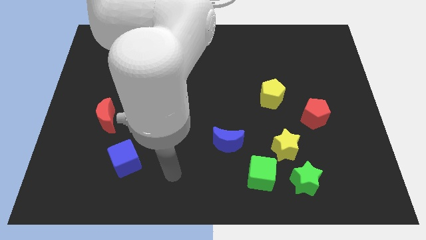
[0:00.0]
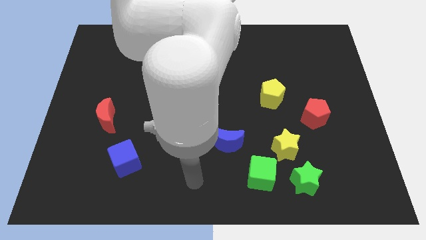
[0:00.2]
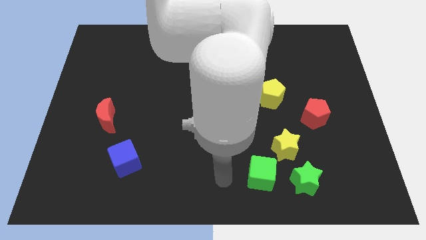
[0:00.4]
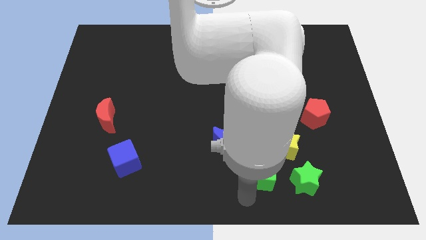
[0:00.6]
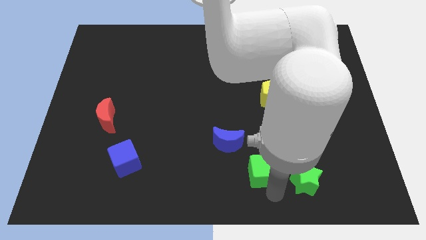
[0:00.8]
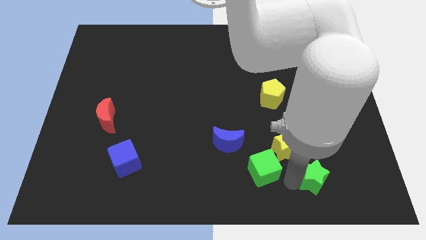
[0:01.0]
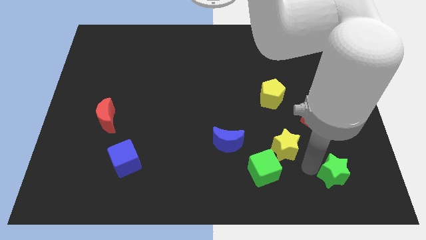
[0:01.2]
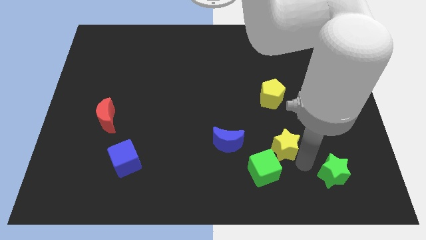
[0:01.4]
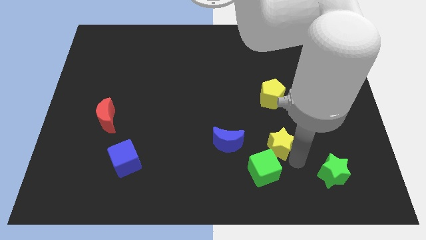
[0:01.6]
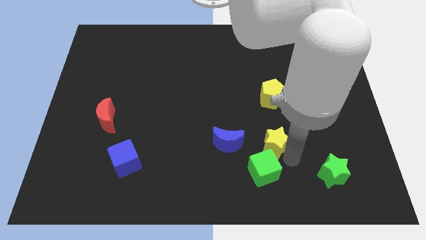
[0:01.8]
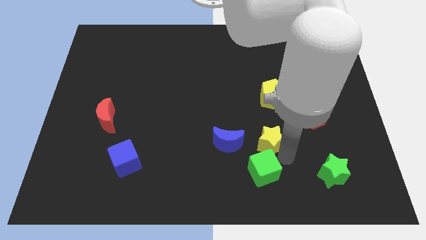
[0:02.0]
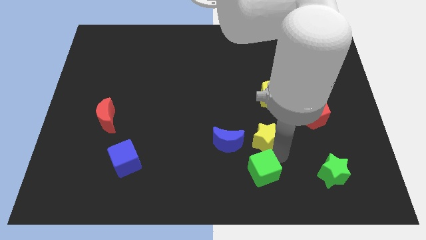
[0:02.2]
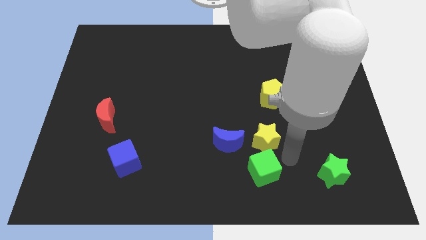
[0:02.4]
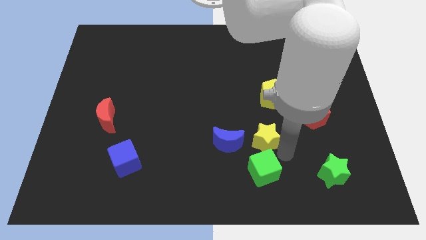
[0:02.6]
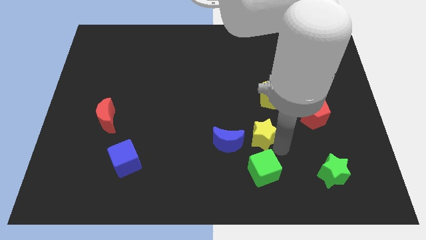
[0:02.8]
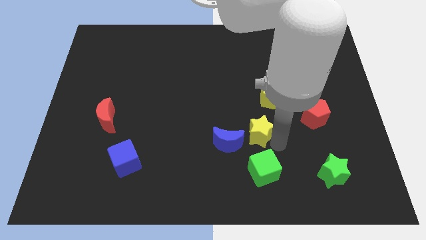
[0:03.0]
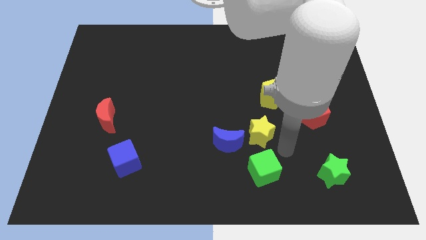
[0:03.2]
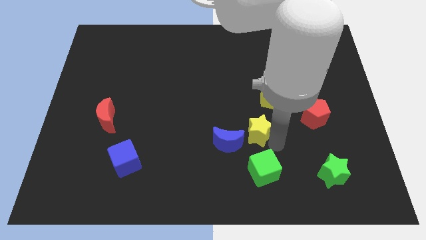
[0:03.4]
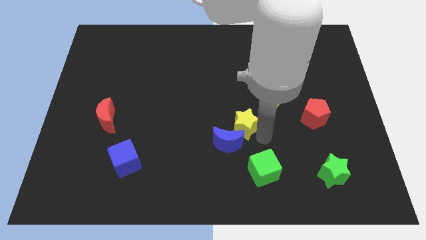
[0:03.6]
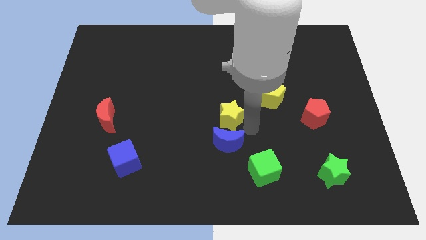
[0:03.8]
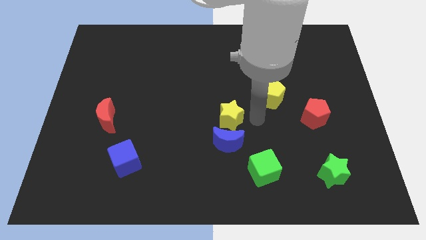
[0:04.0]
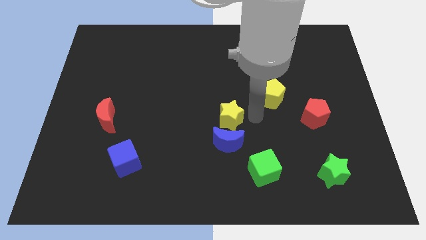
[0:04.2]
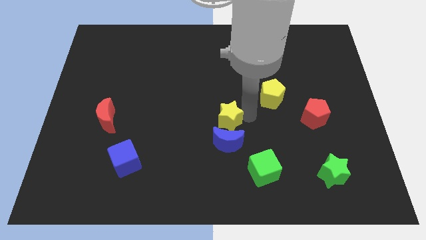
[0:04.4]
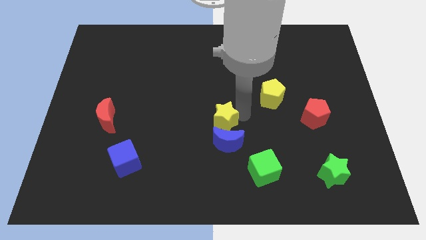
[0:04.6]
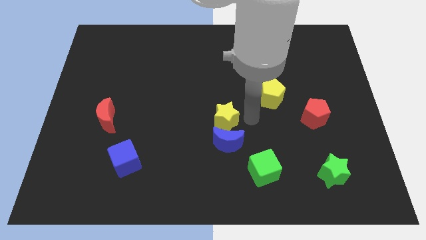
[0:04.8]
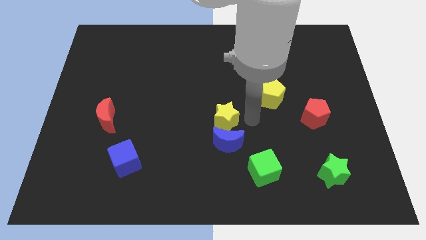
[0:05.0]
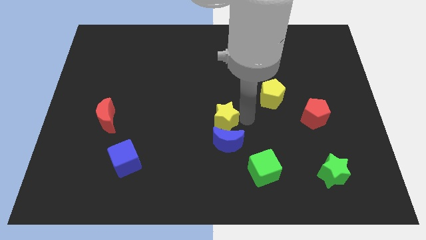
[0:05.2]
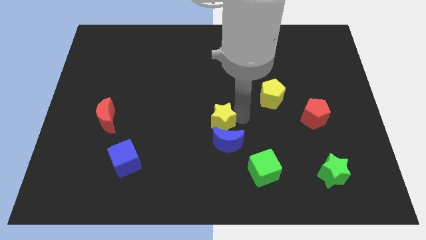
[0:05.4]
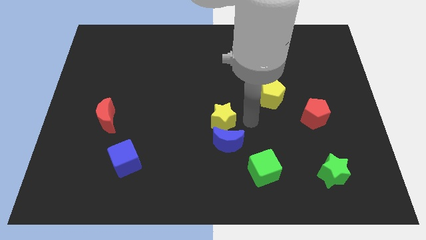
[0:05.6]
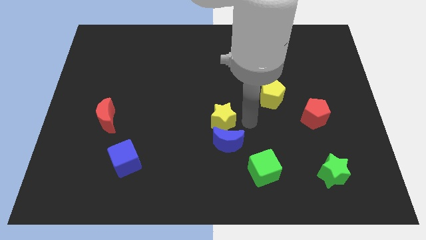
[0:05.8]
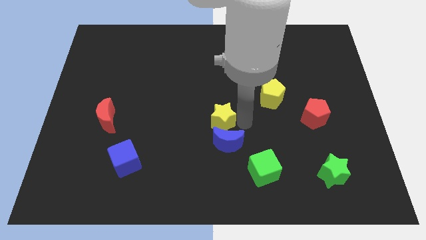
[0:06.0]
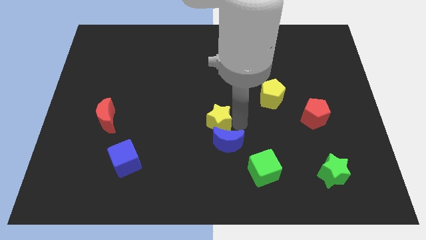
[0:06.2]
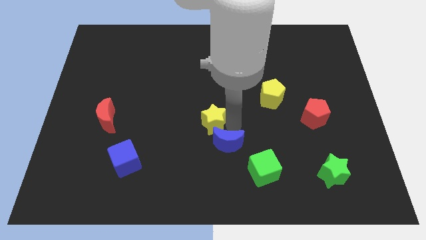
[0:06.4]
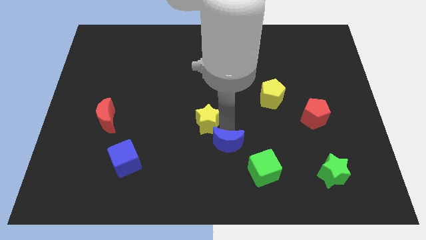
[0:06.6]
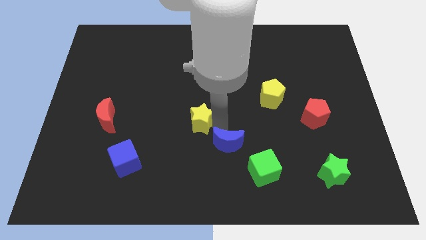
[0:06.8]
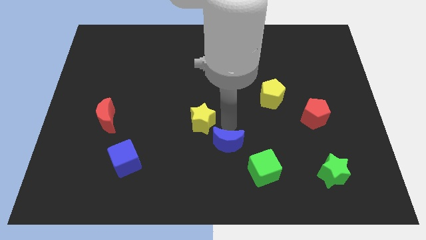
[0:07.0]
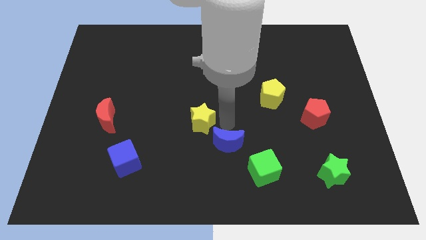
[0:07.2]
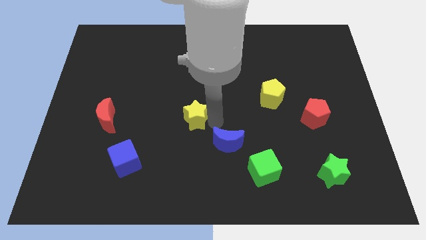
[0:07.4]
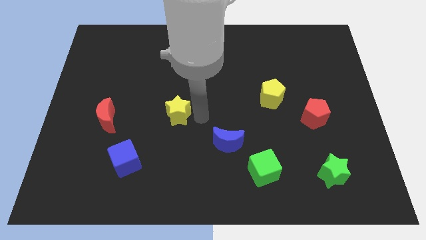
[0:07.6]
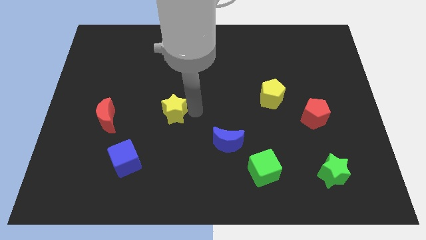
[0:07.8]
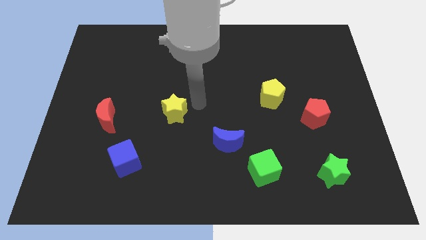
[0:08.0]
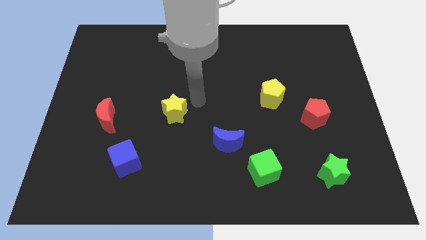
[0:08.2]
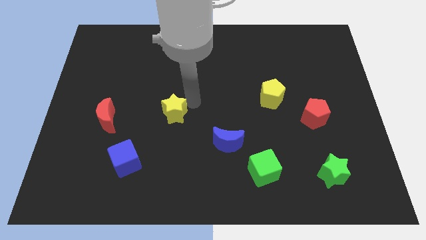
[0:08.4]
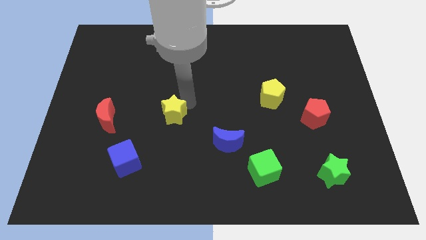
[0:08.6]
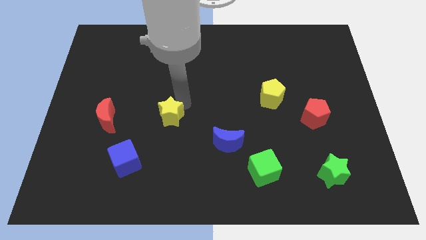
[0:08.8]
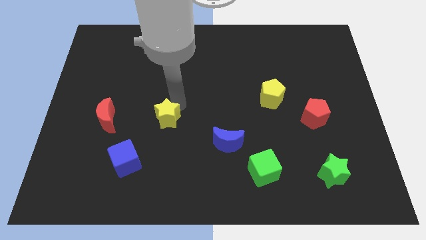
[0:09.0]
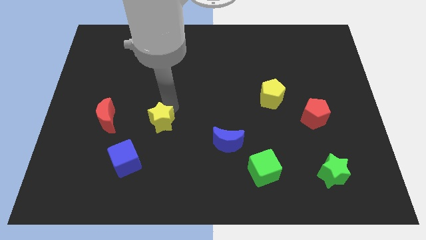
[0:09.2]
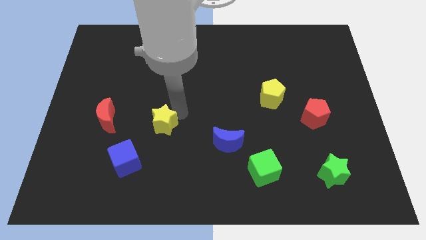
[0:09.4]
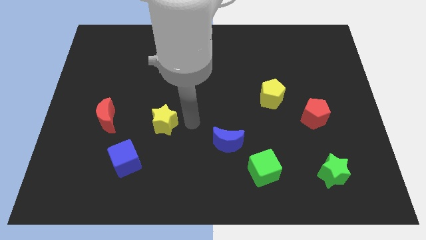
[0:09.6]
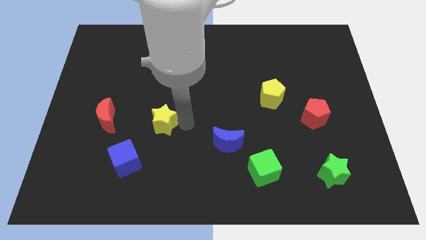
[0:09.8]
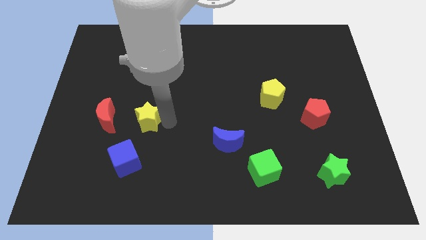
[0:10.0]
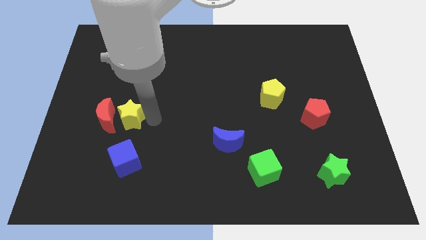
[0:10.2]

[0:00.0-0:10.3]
move the yellow star to the red moon

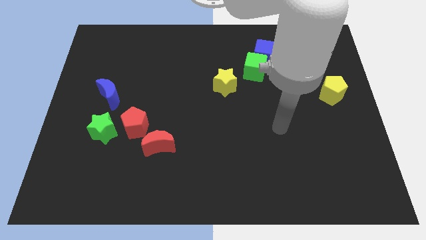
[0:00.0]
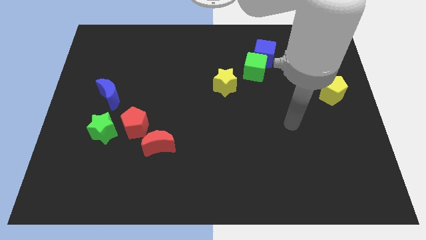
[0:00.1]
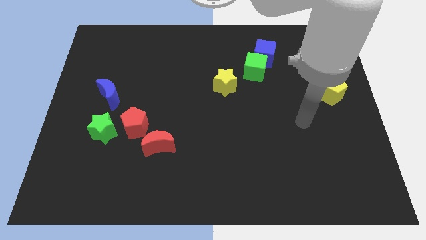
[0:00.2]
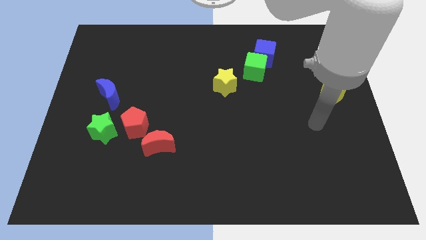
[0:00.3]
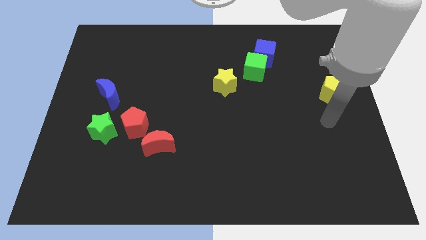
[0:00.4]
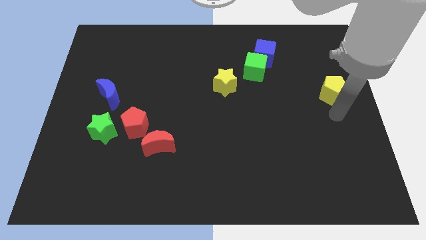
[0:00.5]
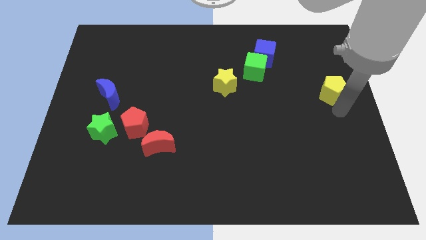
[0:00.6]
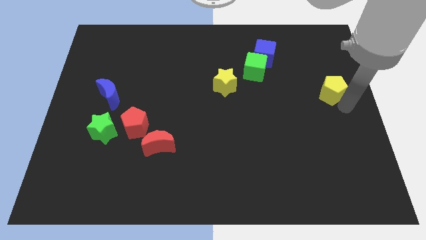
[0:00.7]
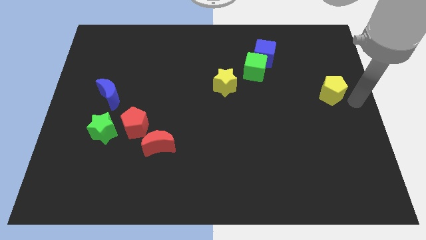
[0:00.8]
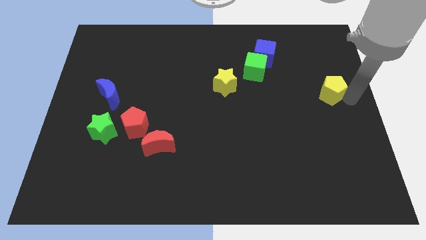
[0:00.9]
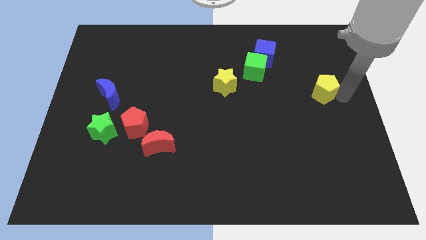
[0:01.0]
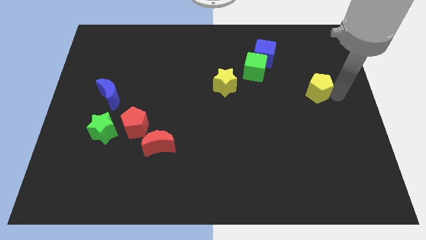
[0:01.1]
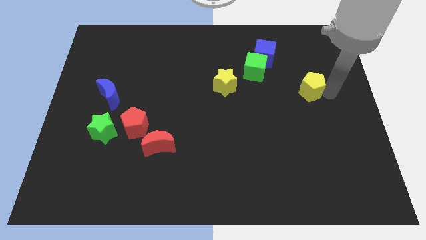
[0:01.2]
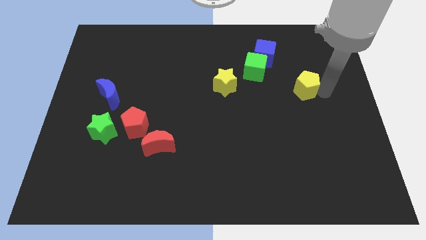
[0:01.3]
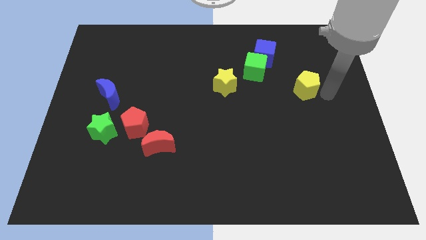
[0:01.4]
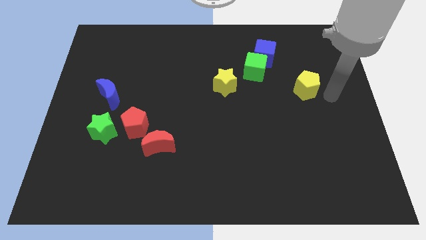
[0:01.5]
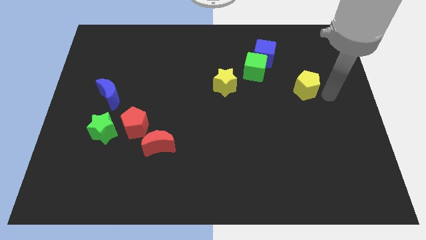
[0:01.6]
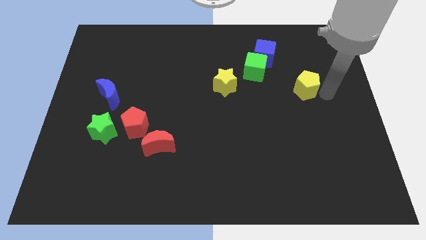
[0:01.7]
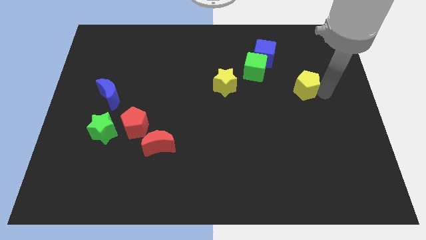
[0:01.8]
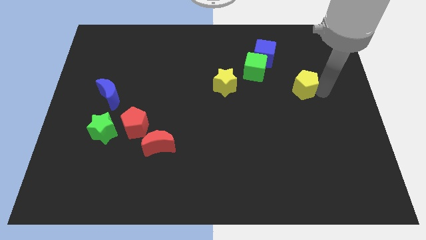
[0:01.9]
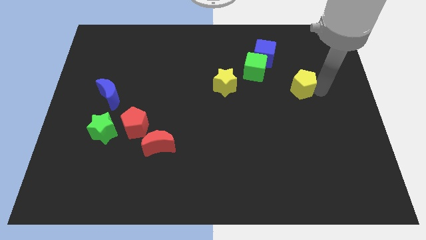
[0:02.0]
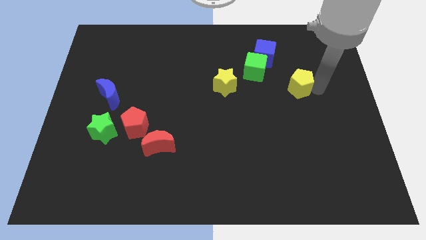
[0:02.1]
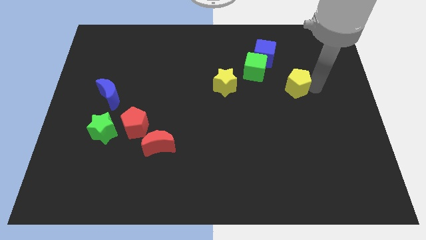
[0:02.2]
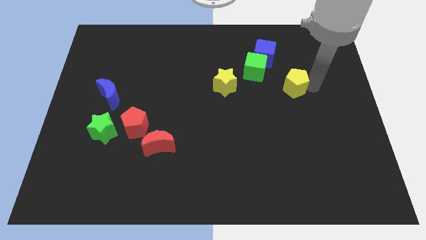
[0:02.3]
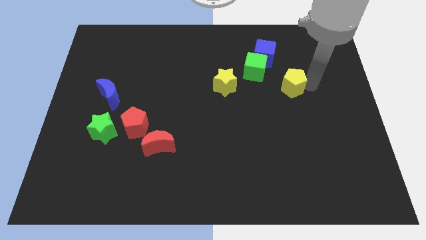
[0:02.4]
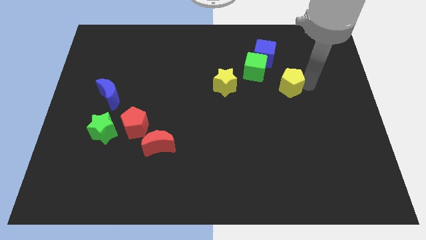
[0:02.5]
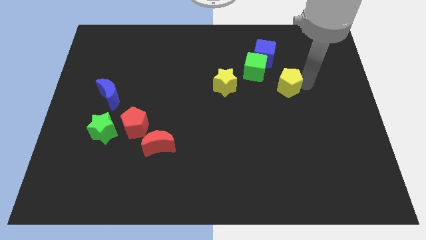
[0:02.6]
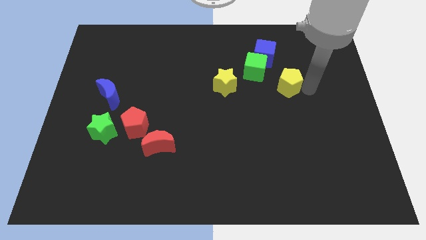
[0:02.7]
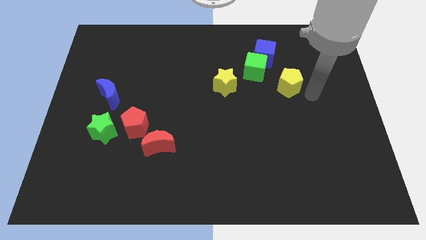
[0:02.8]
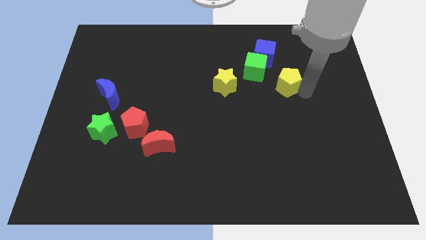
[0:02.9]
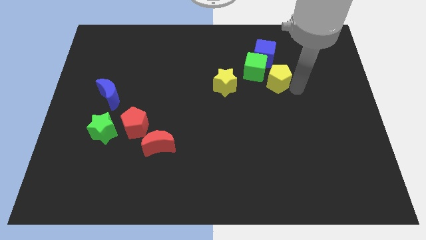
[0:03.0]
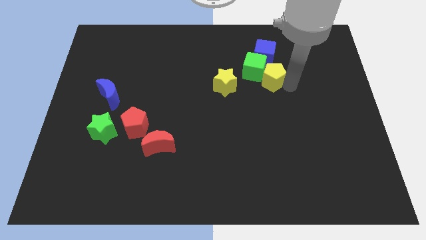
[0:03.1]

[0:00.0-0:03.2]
put the yellow pentagon next to the green cube
